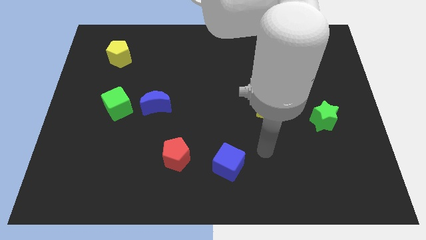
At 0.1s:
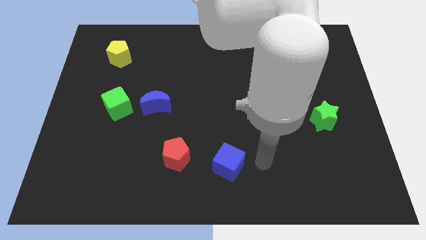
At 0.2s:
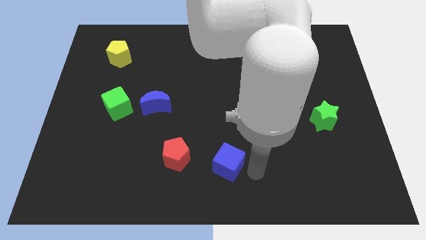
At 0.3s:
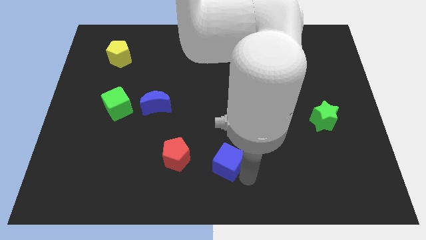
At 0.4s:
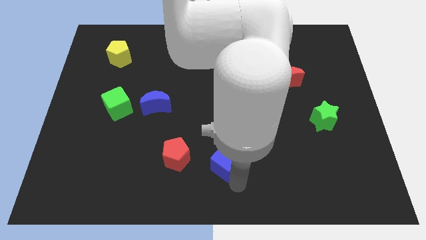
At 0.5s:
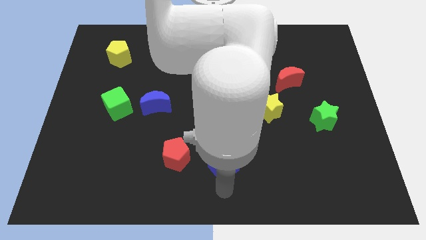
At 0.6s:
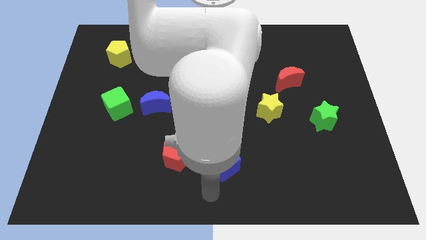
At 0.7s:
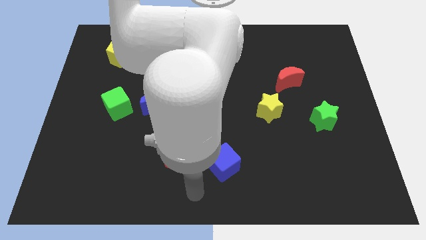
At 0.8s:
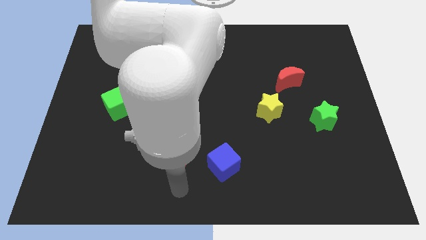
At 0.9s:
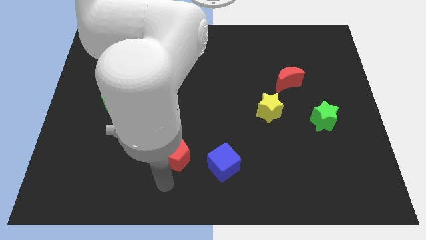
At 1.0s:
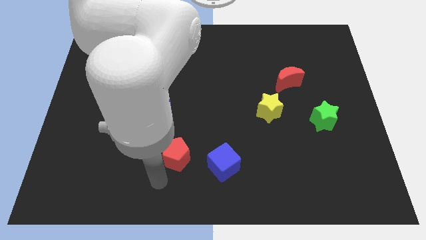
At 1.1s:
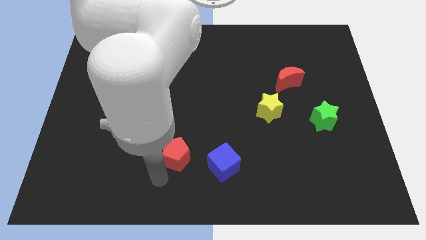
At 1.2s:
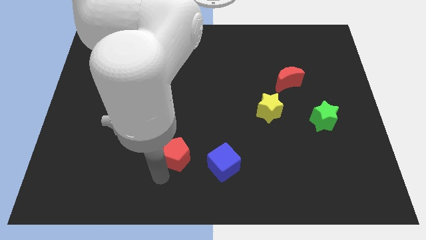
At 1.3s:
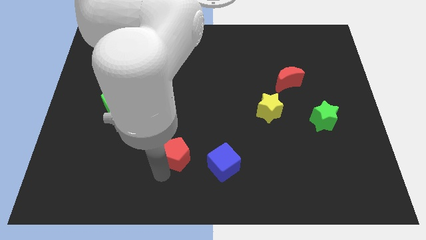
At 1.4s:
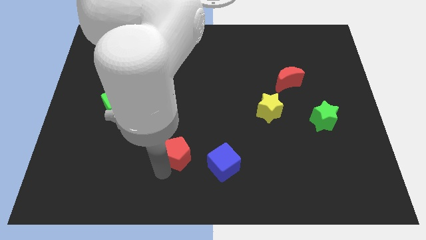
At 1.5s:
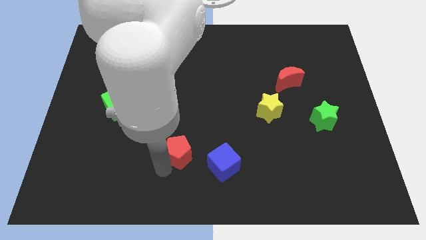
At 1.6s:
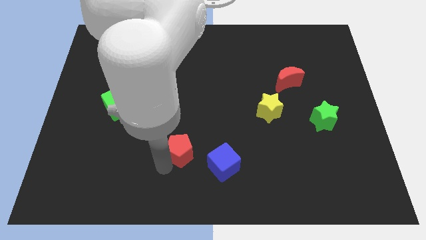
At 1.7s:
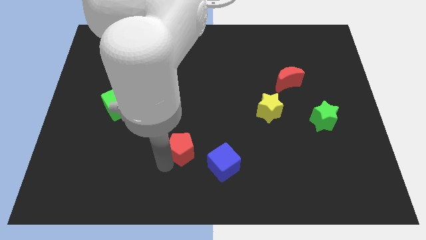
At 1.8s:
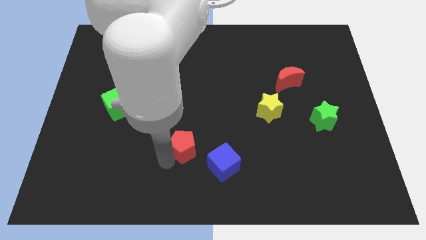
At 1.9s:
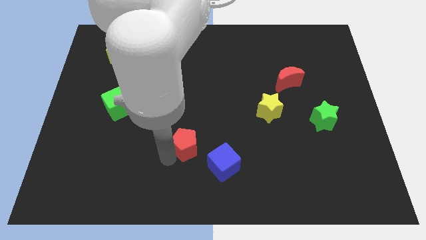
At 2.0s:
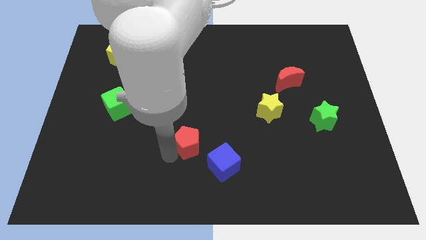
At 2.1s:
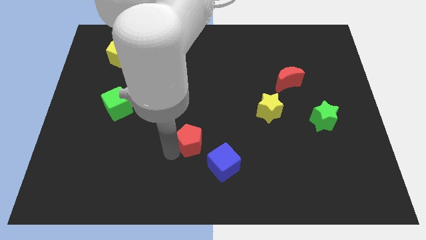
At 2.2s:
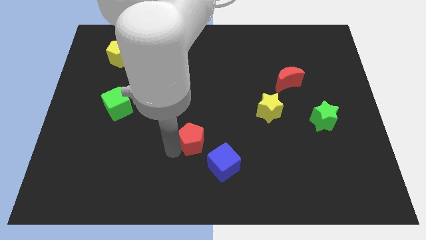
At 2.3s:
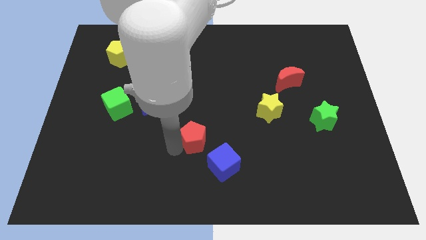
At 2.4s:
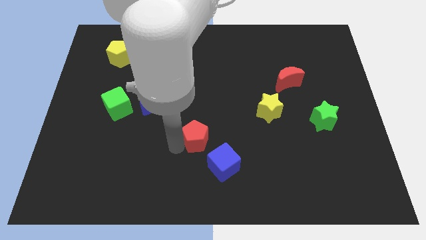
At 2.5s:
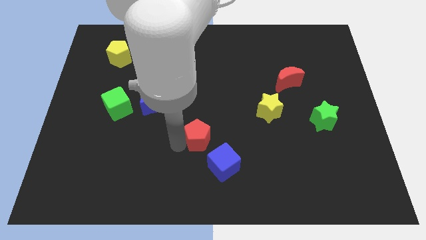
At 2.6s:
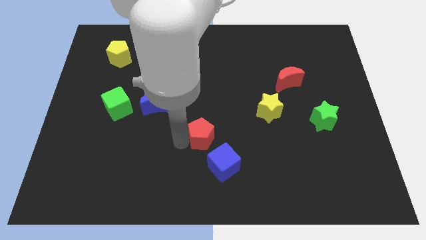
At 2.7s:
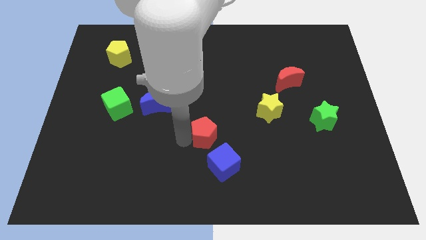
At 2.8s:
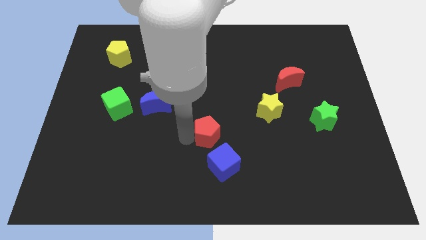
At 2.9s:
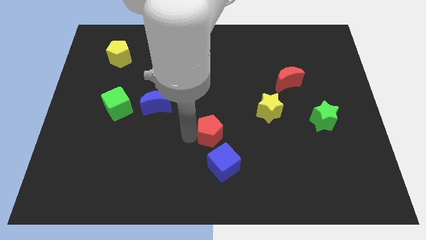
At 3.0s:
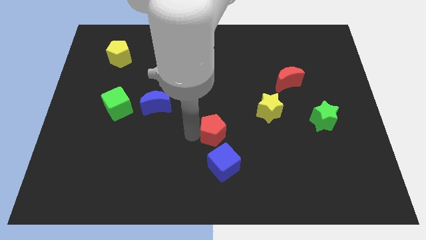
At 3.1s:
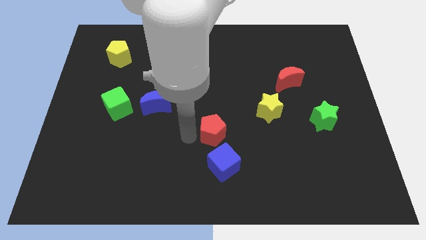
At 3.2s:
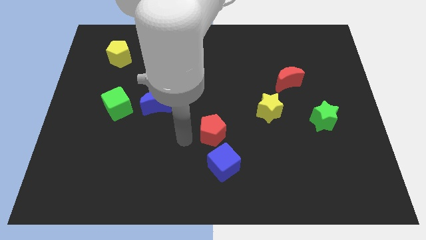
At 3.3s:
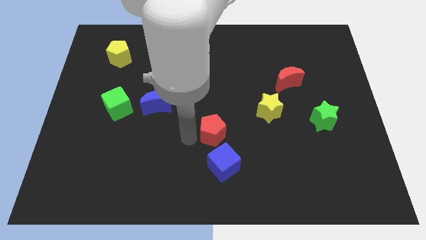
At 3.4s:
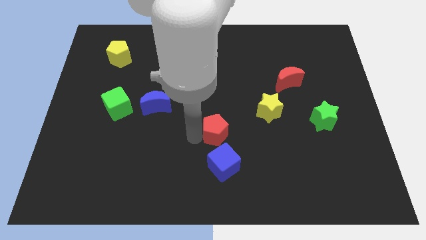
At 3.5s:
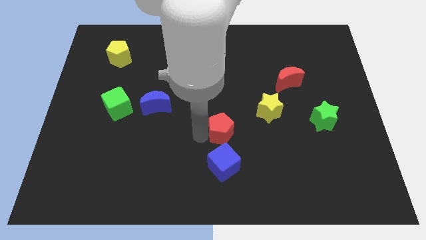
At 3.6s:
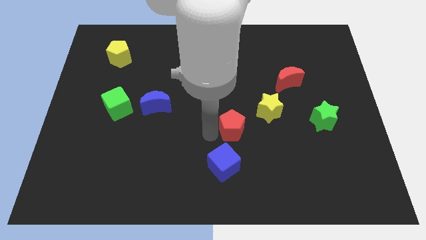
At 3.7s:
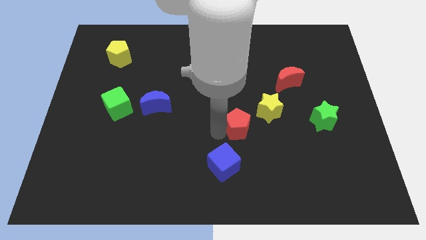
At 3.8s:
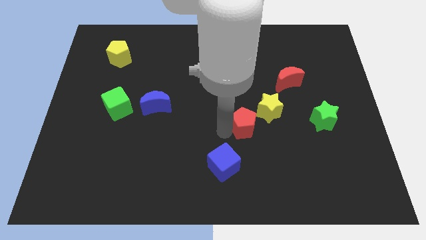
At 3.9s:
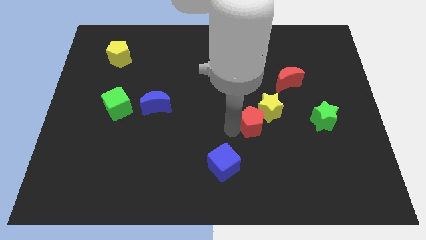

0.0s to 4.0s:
push the red pentagon close to the yellow star

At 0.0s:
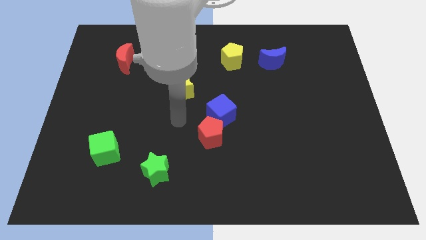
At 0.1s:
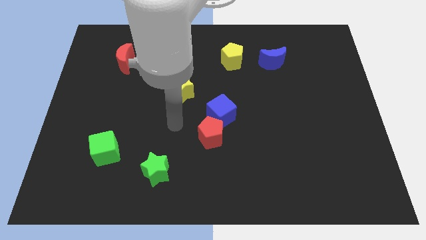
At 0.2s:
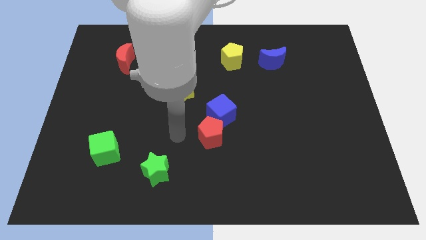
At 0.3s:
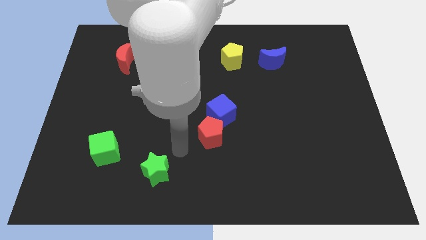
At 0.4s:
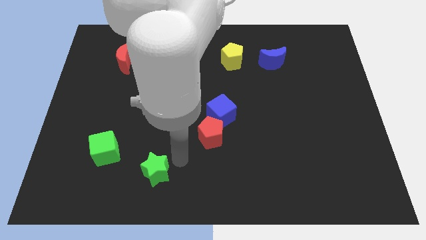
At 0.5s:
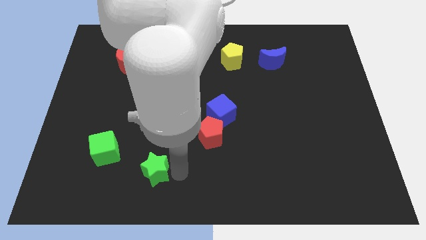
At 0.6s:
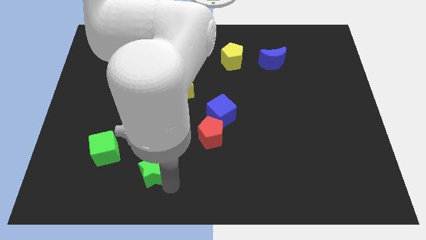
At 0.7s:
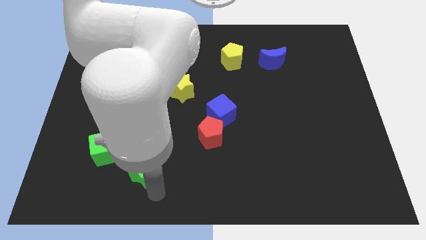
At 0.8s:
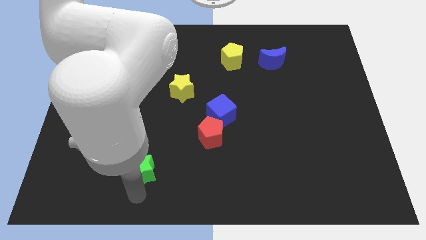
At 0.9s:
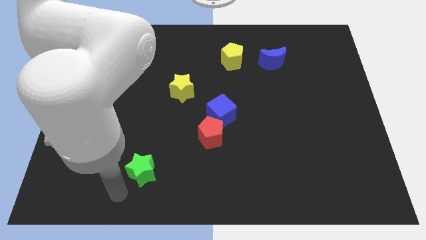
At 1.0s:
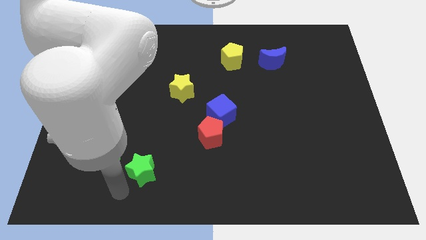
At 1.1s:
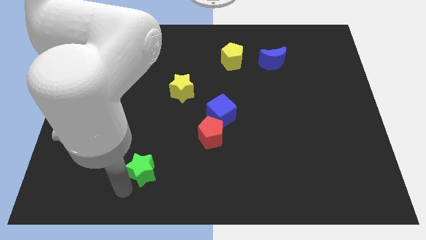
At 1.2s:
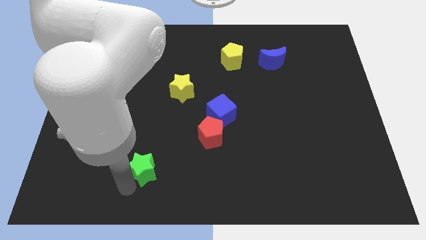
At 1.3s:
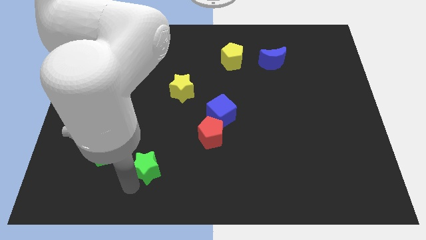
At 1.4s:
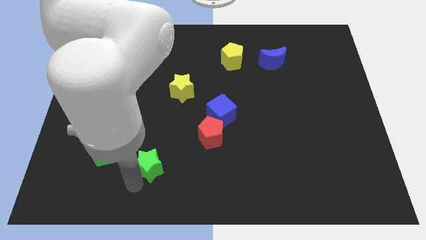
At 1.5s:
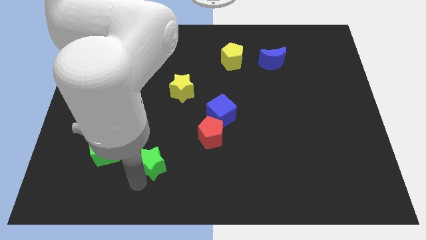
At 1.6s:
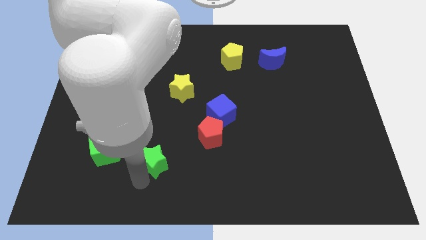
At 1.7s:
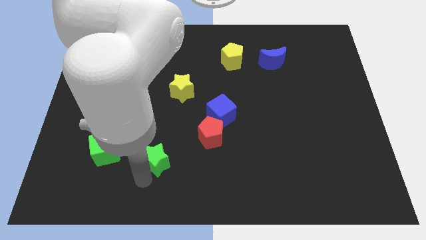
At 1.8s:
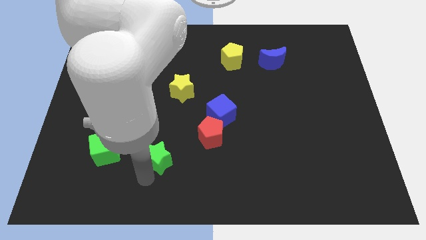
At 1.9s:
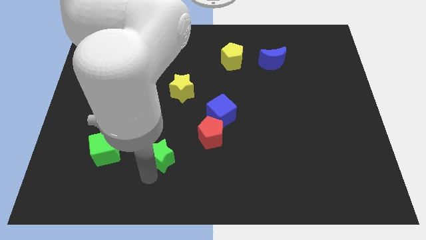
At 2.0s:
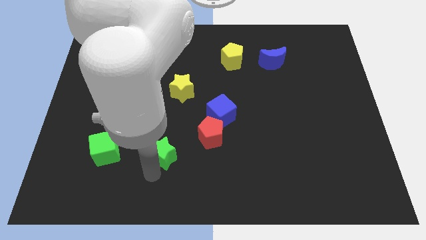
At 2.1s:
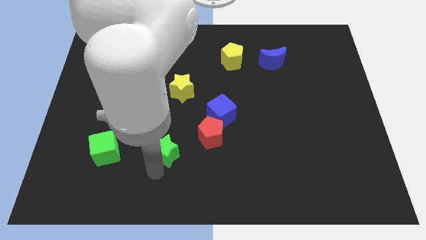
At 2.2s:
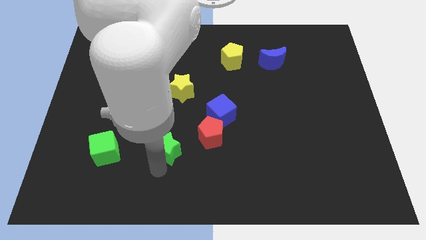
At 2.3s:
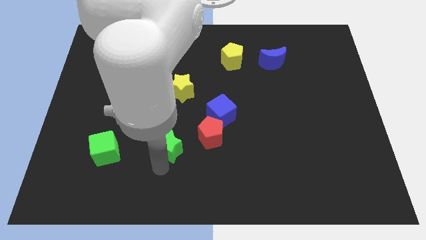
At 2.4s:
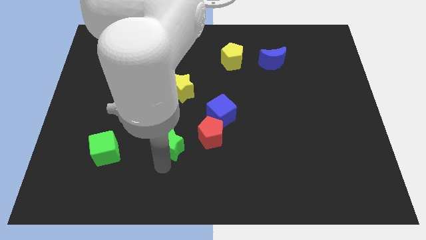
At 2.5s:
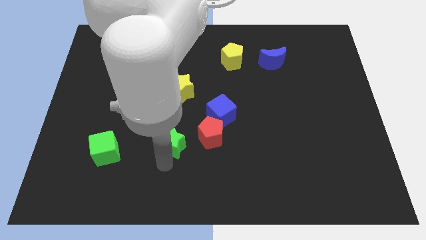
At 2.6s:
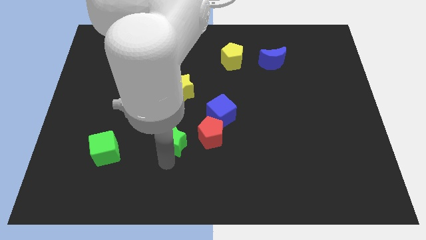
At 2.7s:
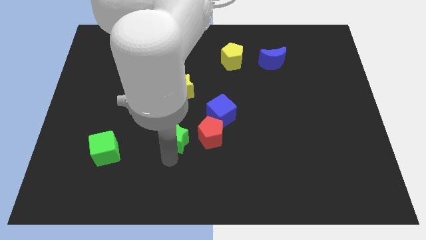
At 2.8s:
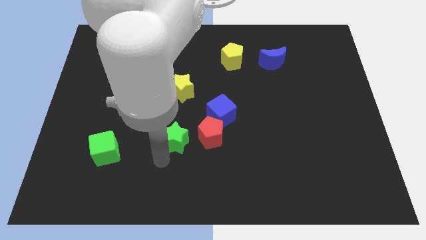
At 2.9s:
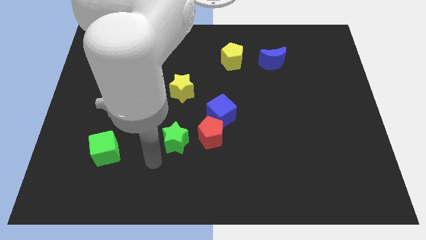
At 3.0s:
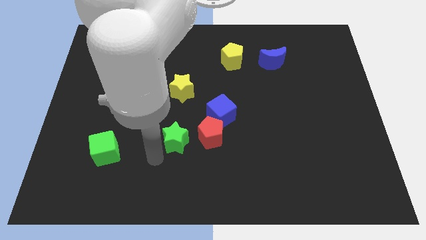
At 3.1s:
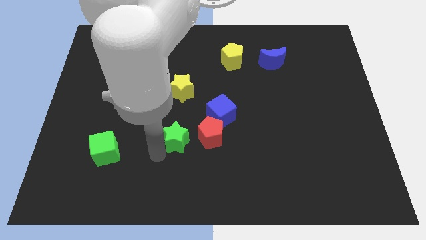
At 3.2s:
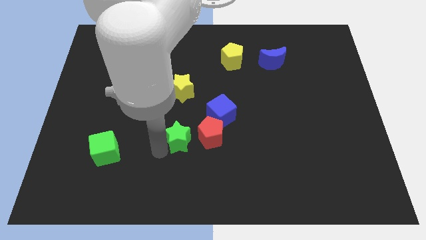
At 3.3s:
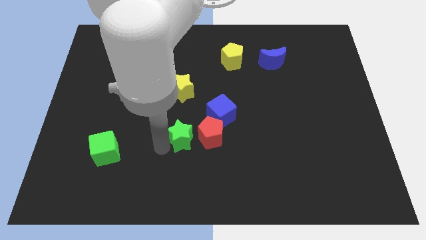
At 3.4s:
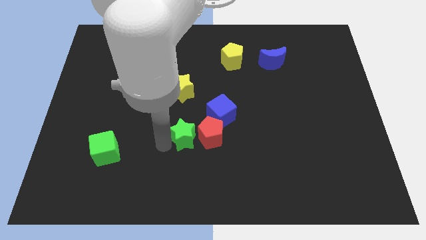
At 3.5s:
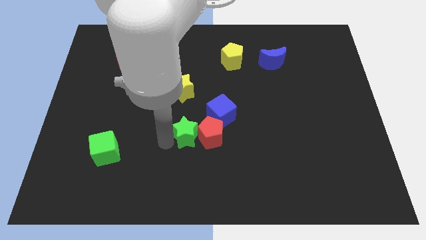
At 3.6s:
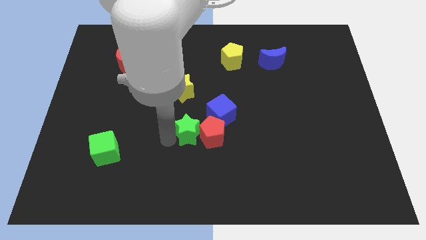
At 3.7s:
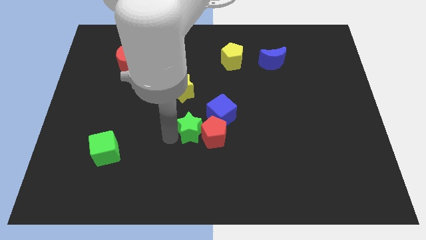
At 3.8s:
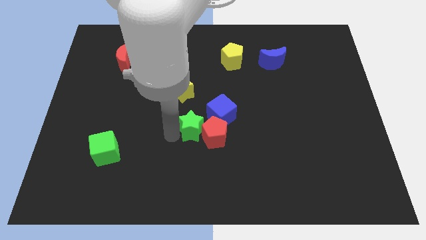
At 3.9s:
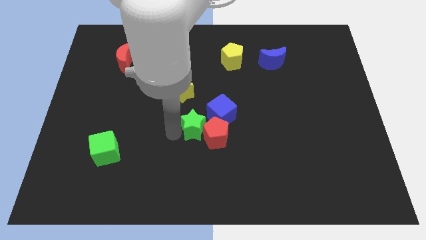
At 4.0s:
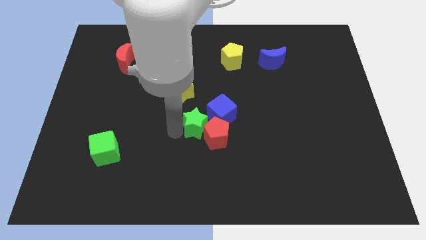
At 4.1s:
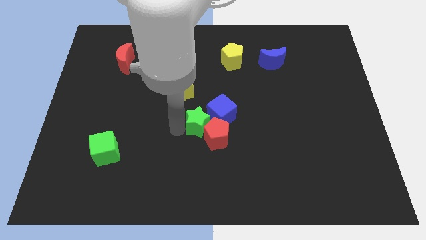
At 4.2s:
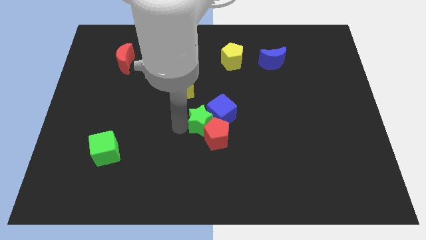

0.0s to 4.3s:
move the green star towards the blue cube
